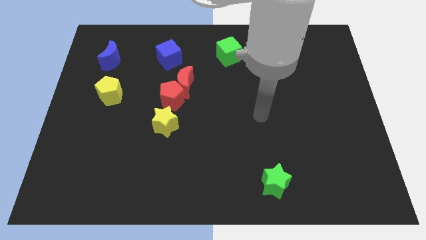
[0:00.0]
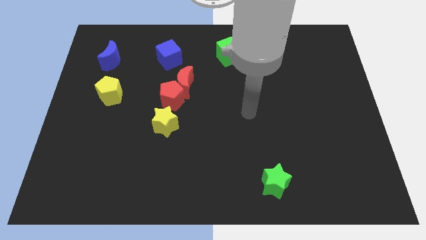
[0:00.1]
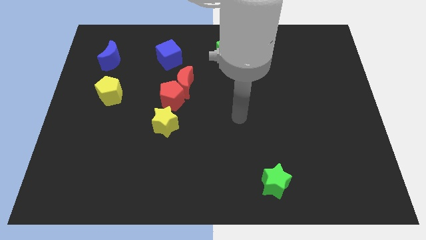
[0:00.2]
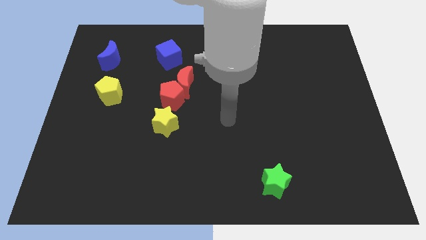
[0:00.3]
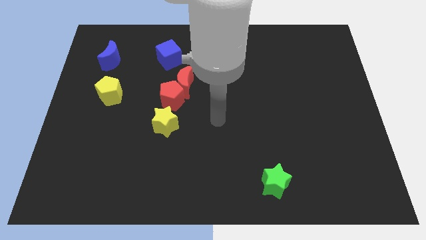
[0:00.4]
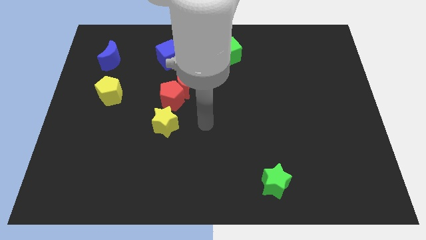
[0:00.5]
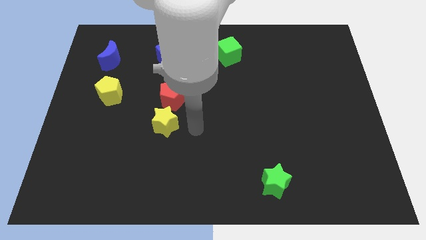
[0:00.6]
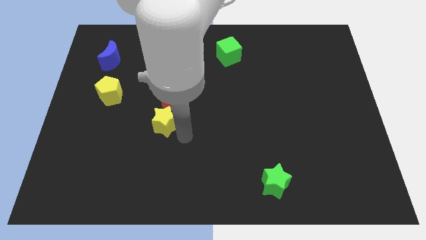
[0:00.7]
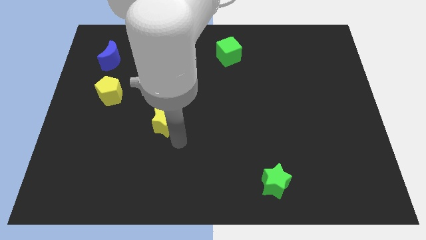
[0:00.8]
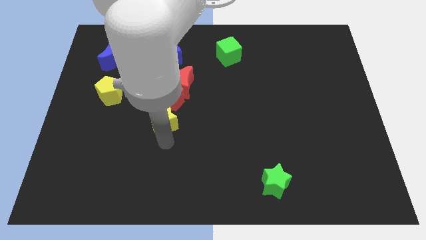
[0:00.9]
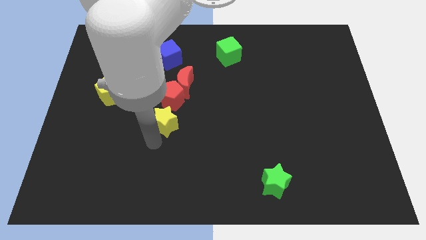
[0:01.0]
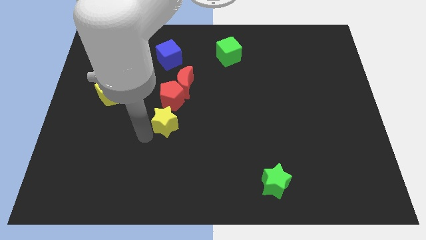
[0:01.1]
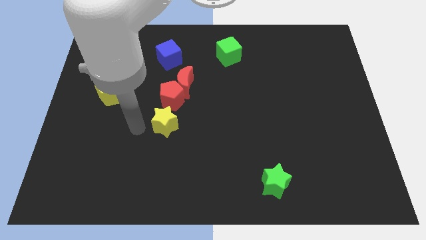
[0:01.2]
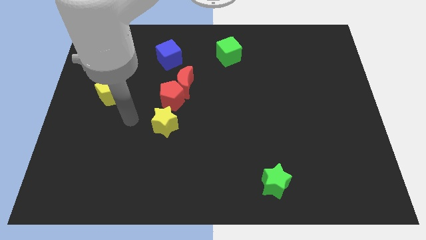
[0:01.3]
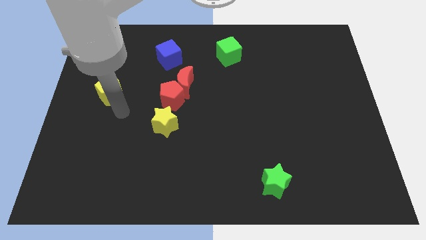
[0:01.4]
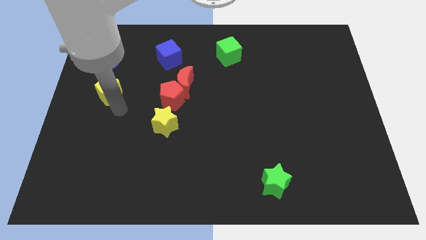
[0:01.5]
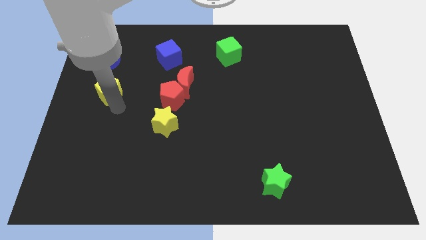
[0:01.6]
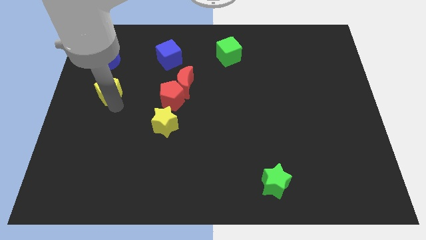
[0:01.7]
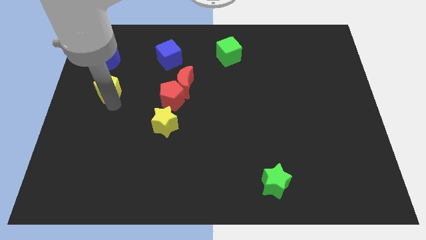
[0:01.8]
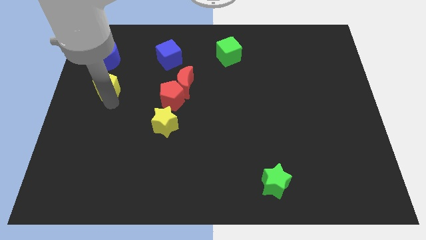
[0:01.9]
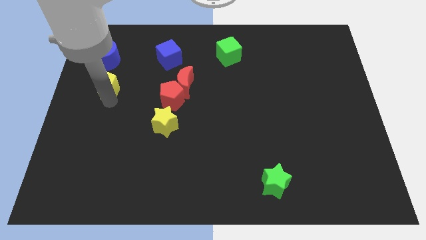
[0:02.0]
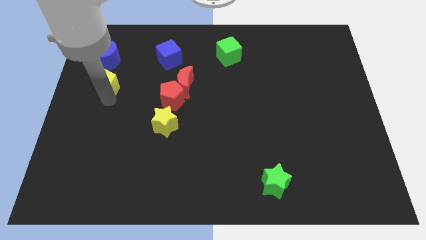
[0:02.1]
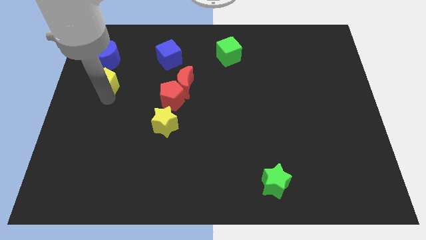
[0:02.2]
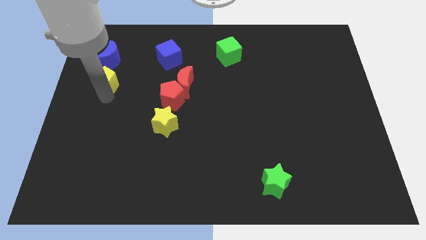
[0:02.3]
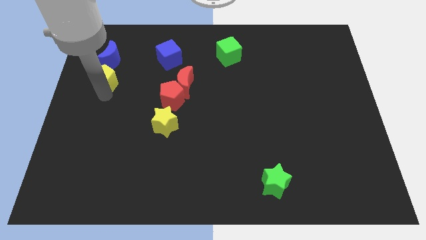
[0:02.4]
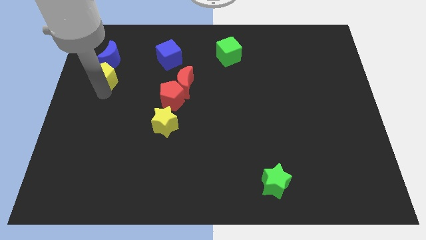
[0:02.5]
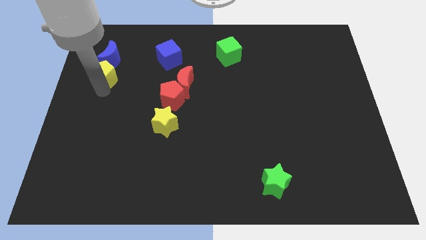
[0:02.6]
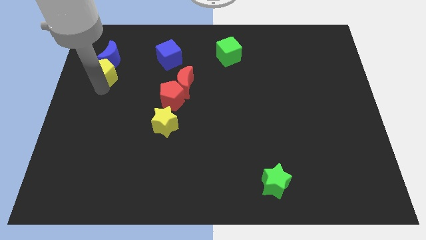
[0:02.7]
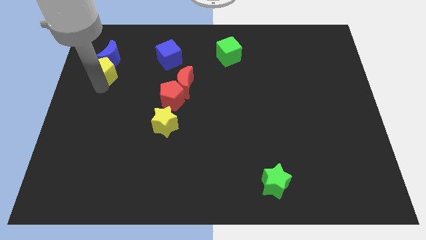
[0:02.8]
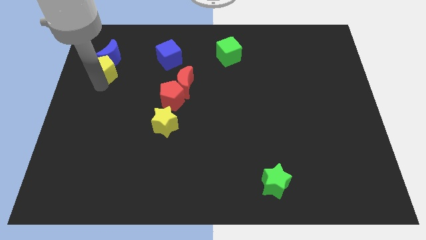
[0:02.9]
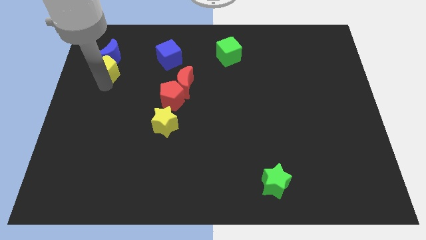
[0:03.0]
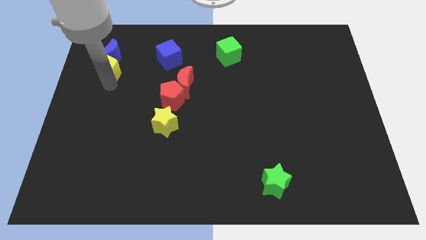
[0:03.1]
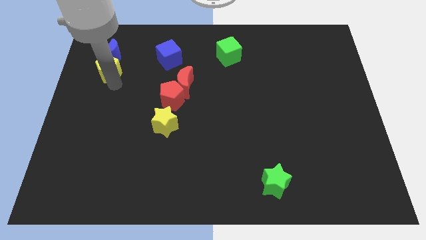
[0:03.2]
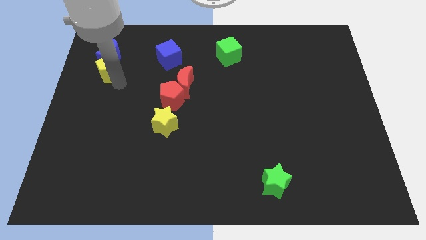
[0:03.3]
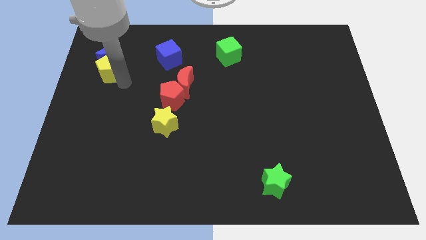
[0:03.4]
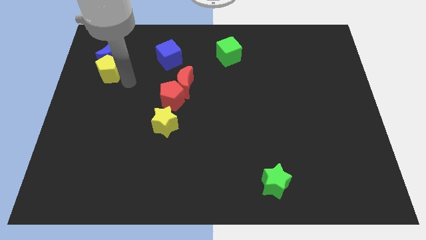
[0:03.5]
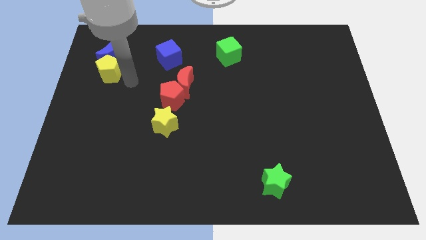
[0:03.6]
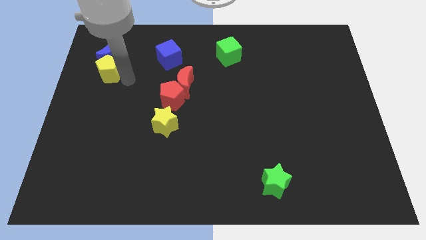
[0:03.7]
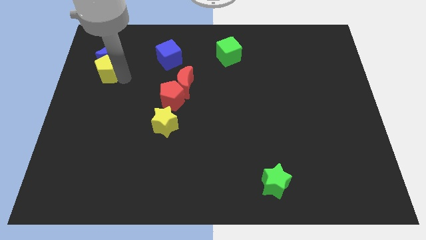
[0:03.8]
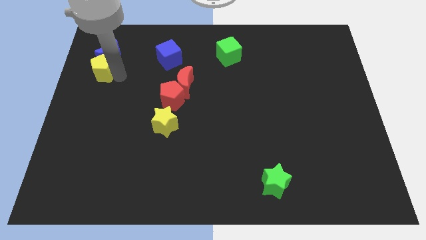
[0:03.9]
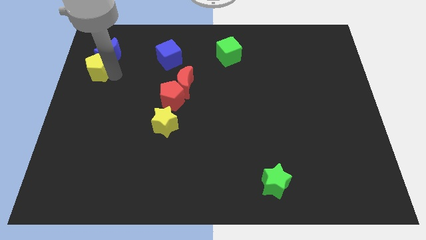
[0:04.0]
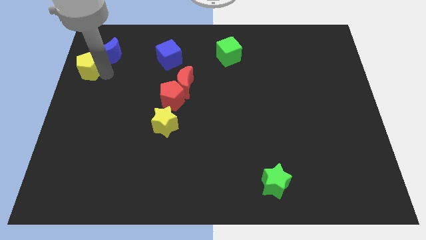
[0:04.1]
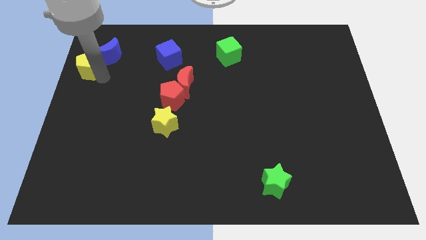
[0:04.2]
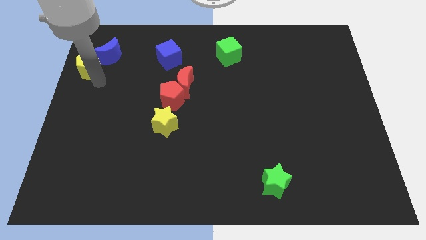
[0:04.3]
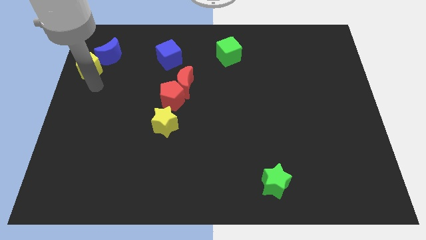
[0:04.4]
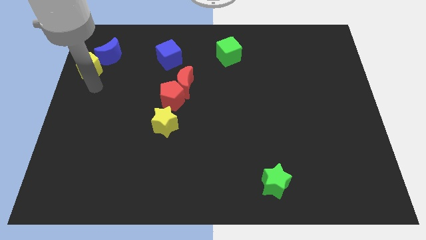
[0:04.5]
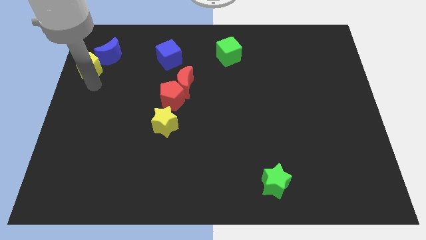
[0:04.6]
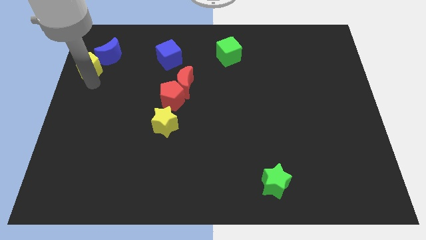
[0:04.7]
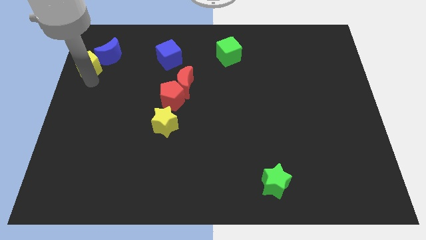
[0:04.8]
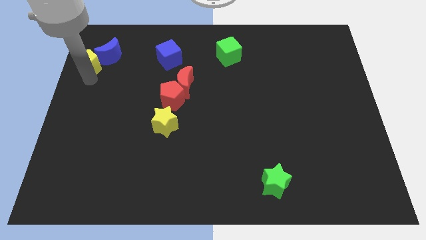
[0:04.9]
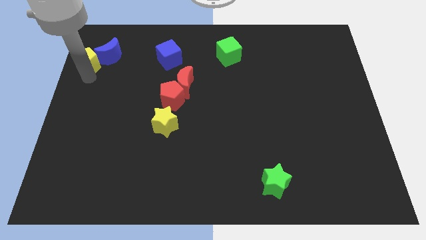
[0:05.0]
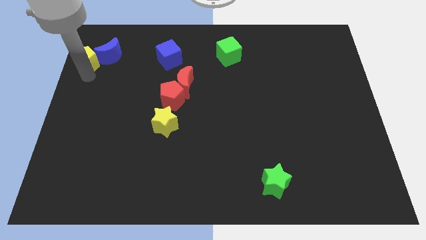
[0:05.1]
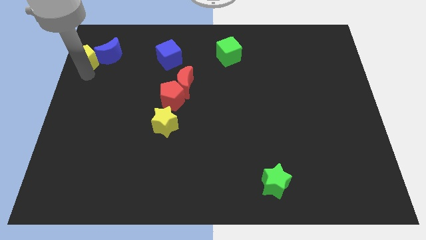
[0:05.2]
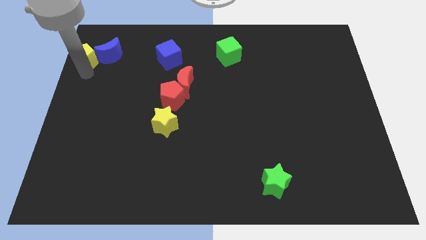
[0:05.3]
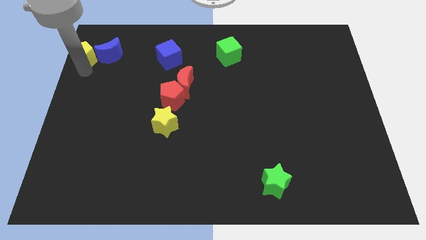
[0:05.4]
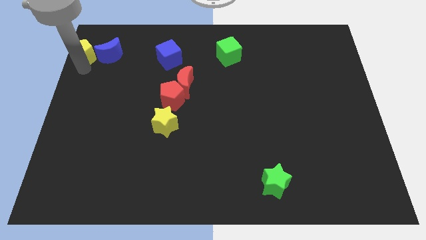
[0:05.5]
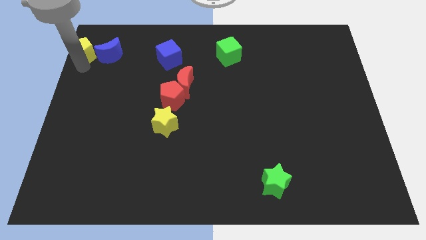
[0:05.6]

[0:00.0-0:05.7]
push the yellow pentagon to the top left
